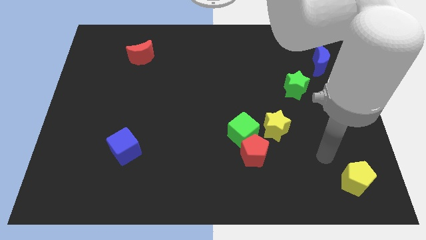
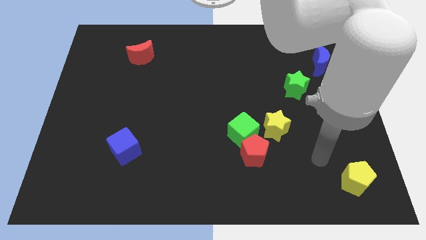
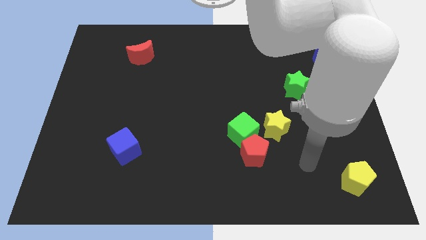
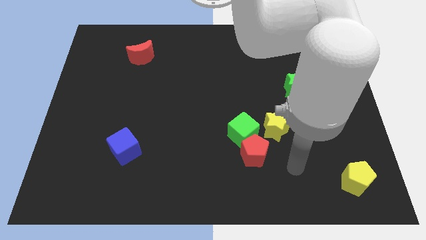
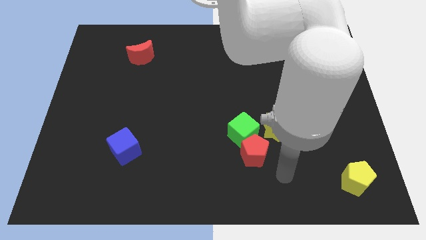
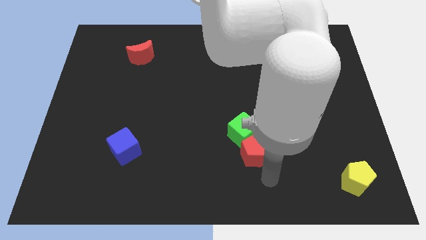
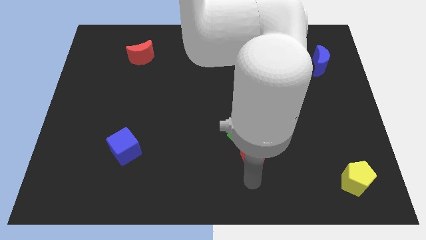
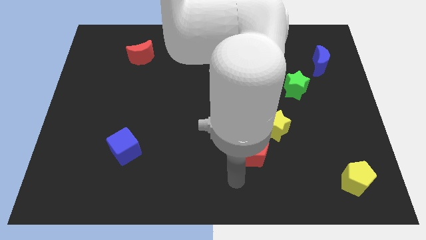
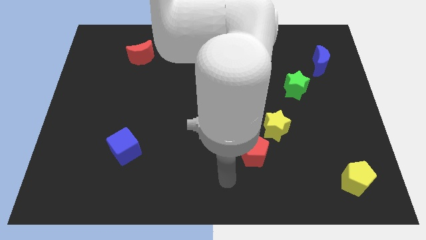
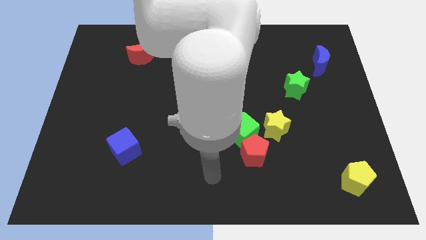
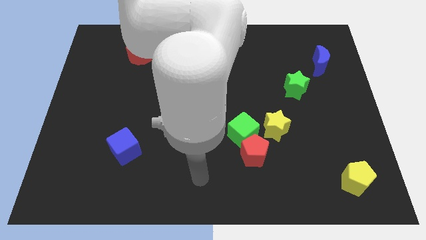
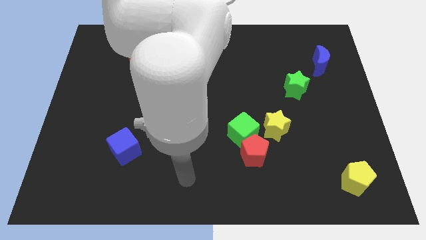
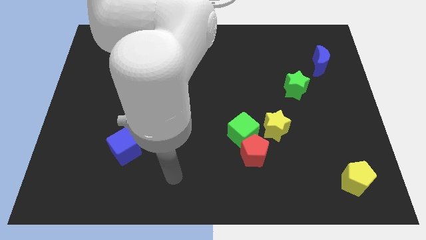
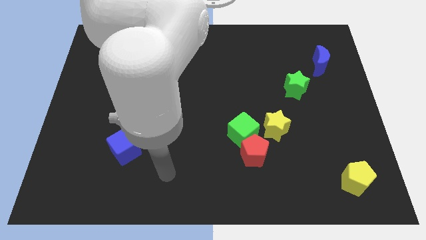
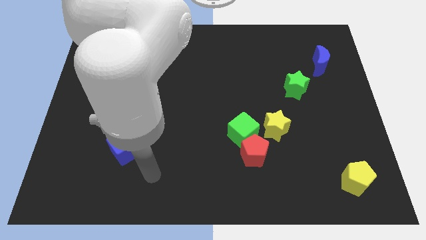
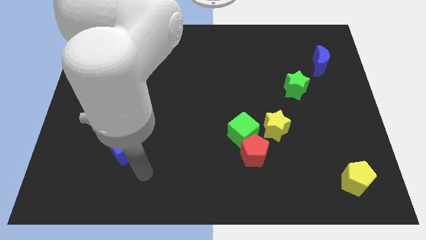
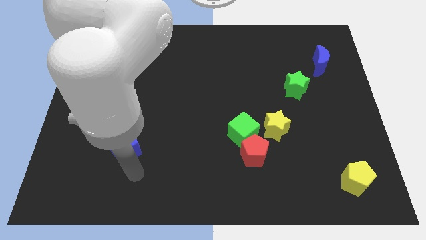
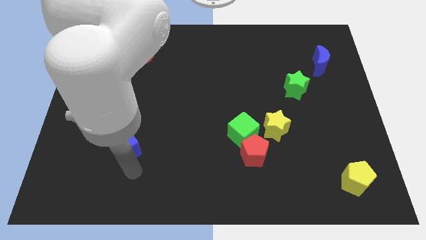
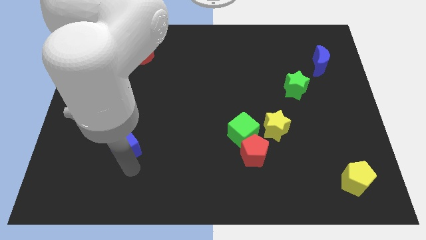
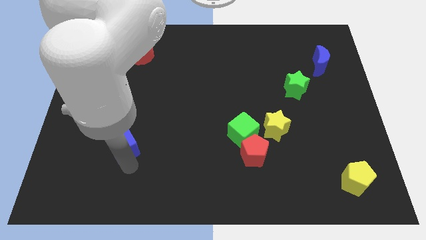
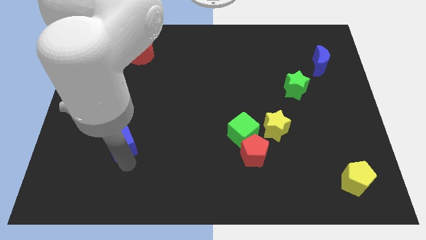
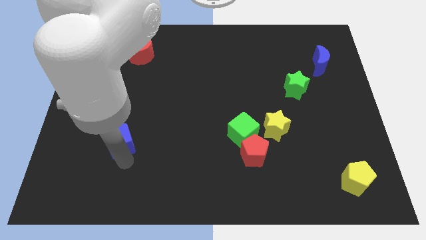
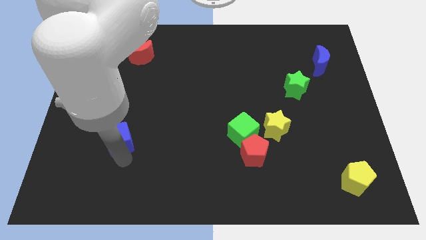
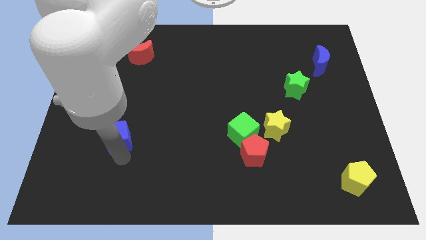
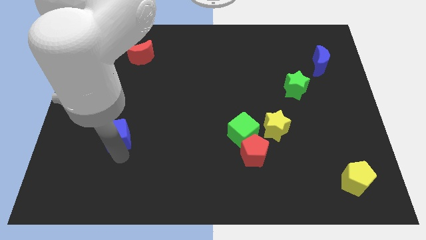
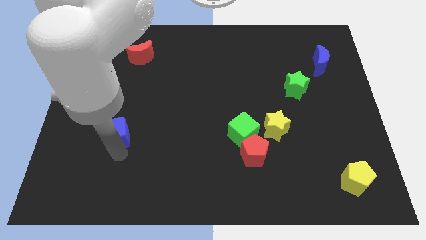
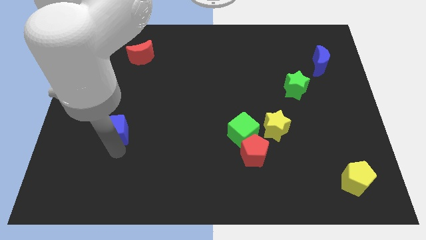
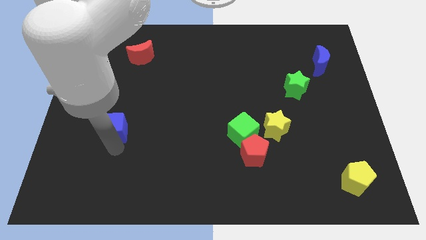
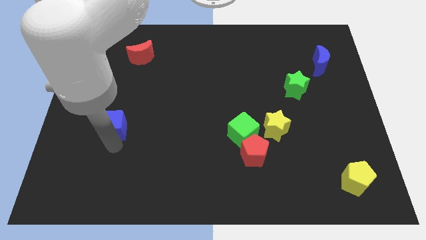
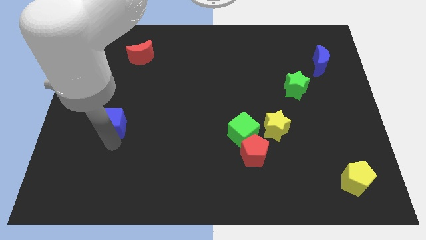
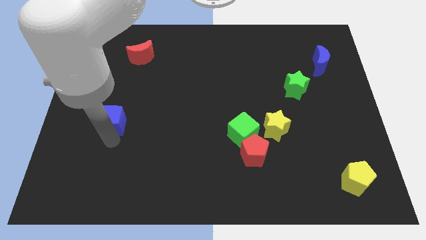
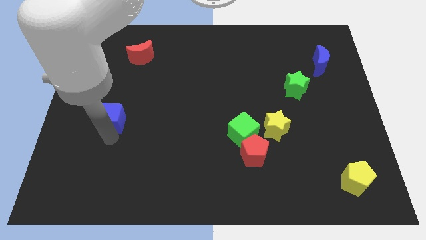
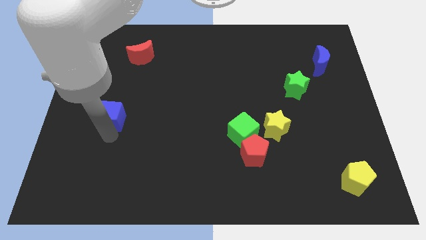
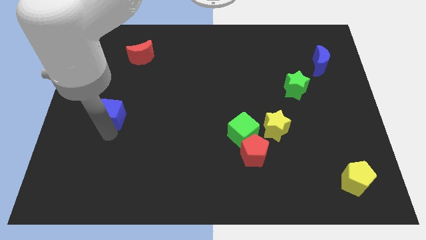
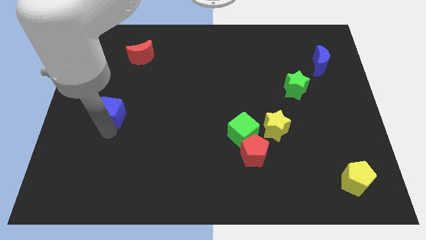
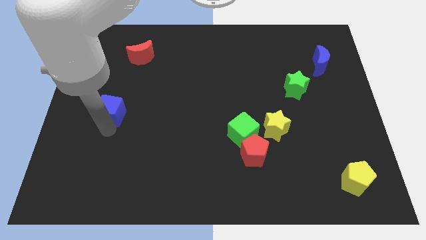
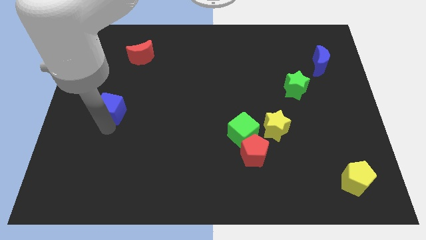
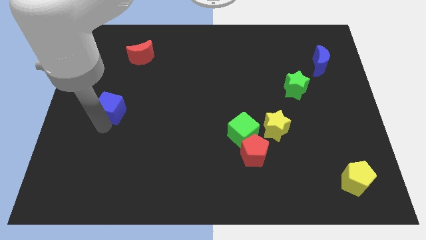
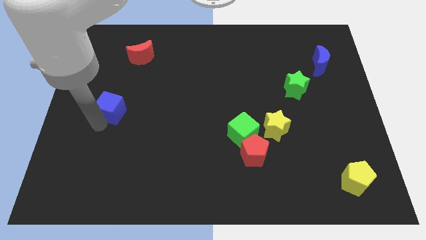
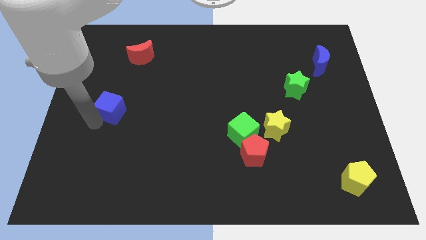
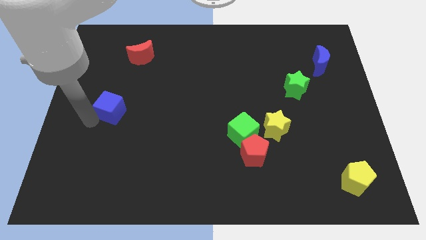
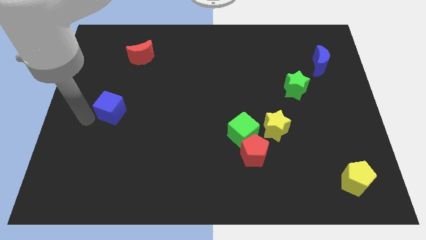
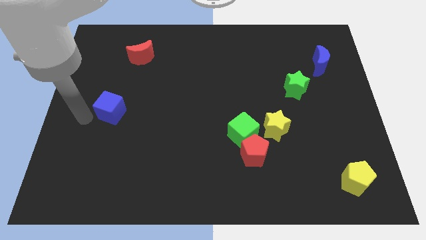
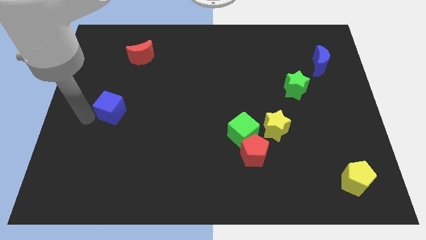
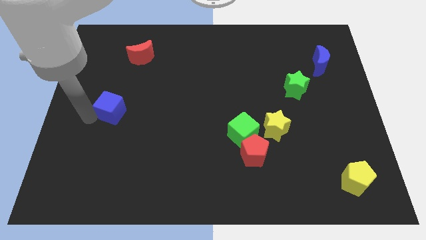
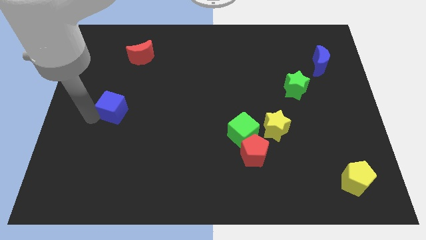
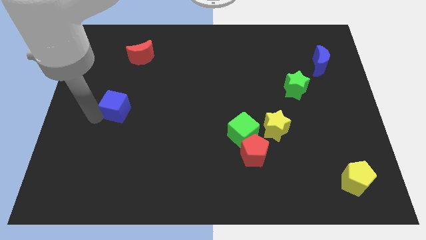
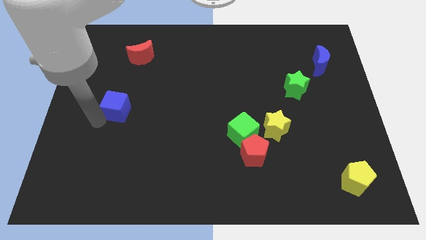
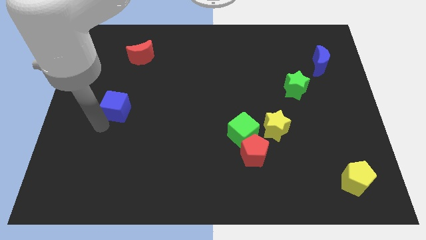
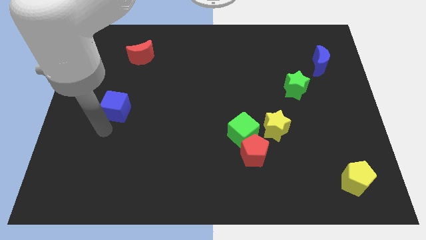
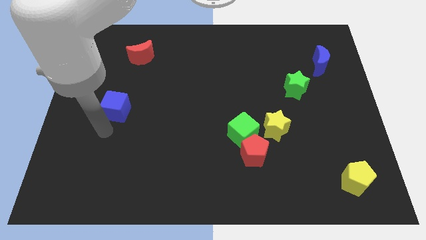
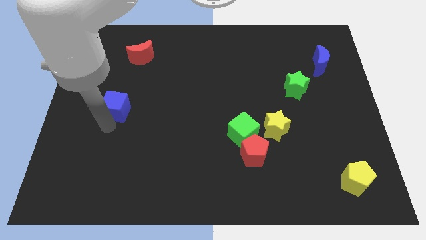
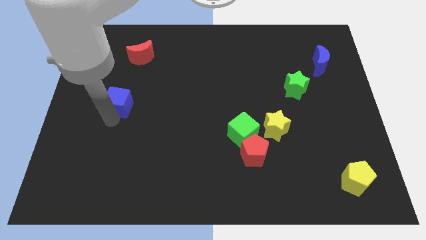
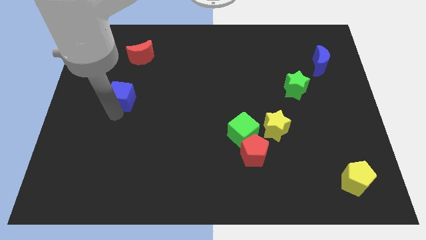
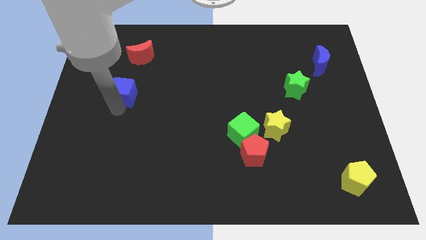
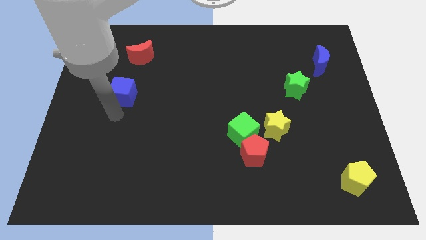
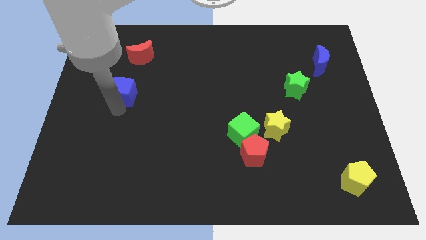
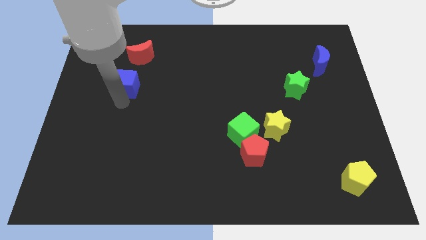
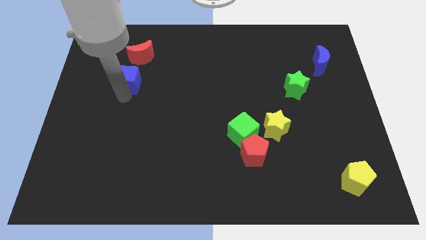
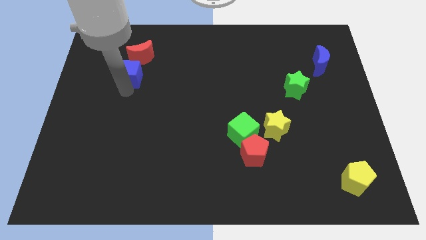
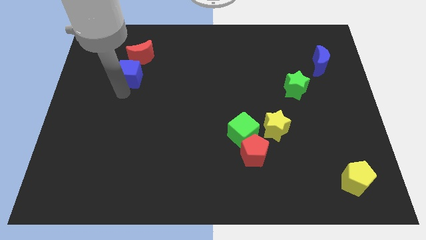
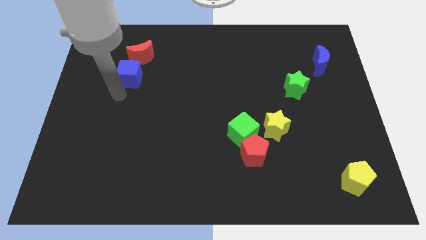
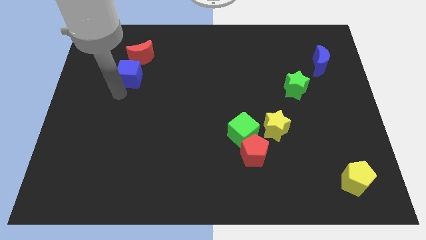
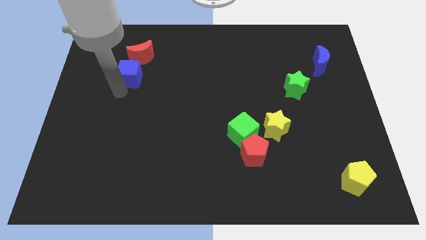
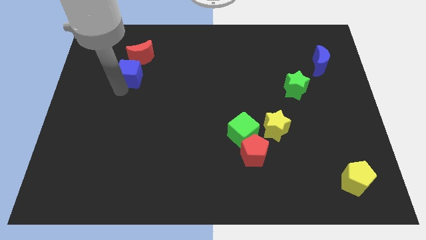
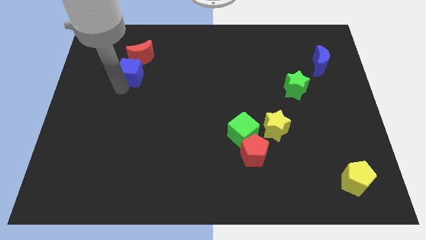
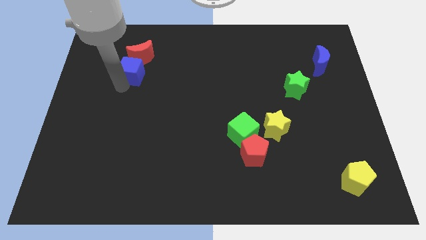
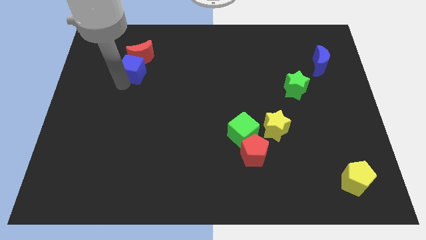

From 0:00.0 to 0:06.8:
put the blue cube close to the red moon

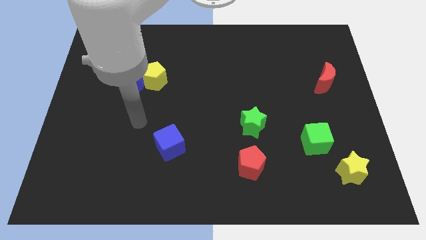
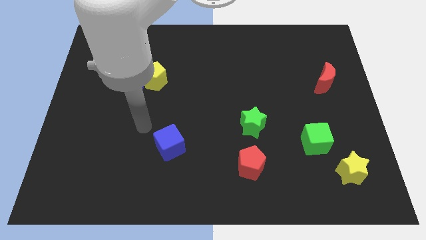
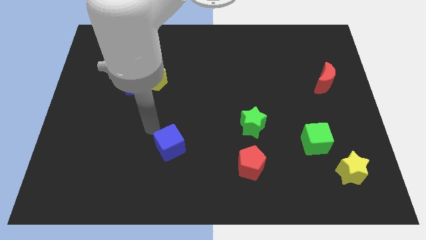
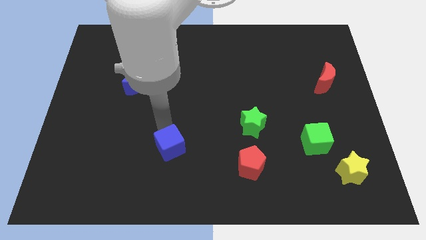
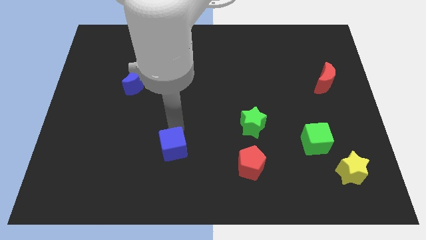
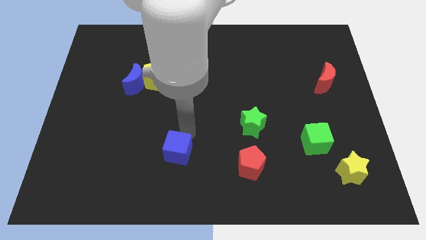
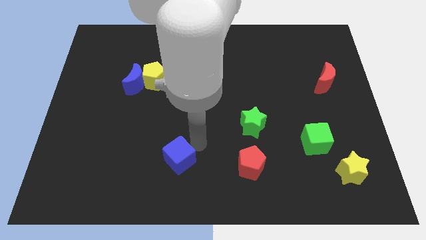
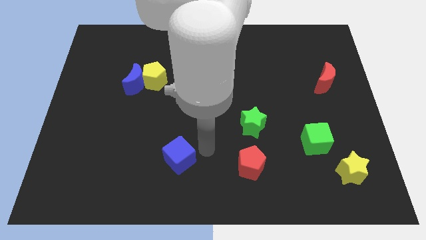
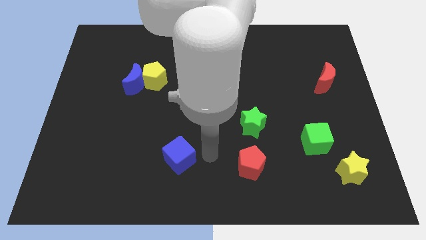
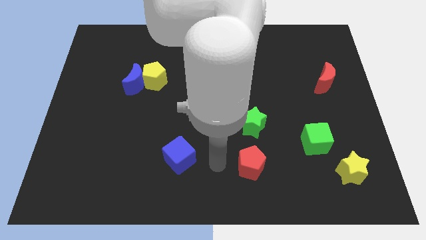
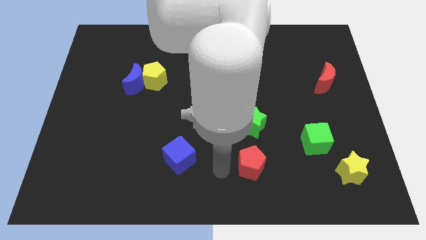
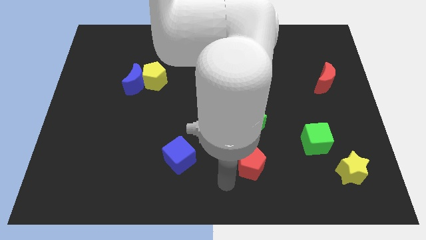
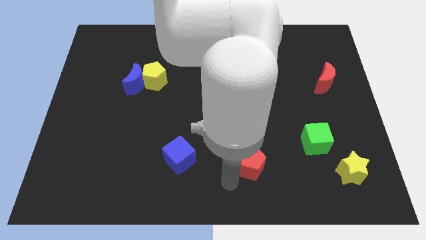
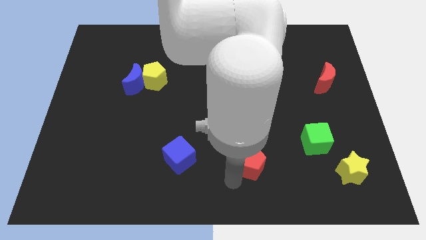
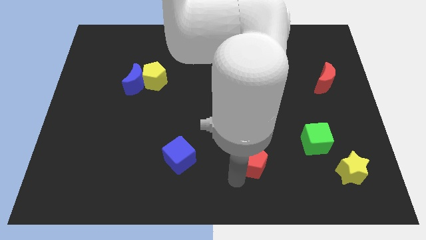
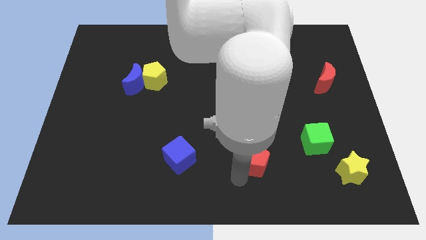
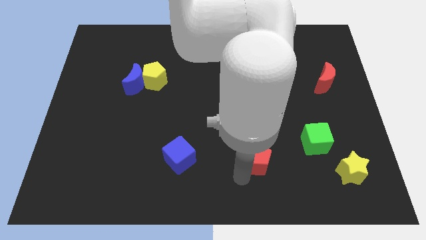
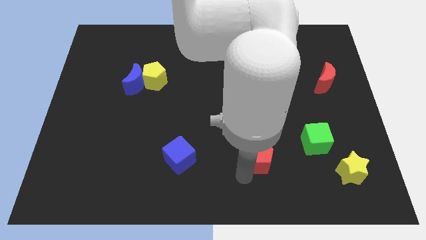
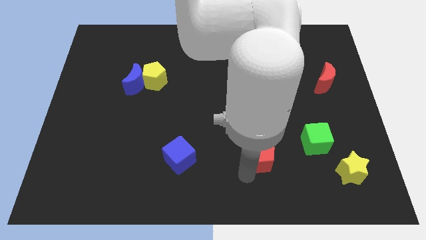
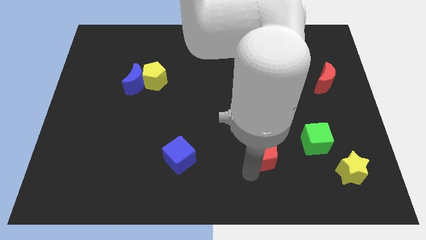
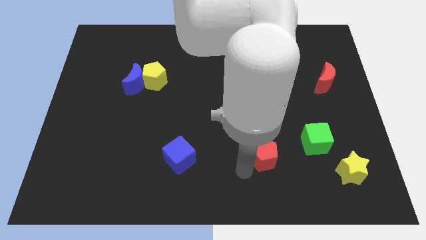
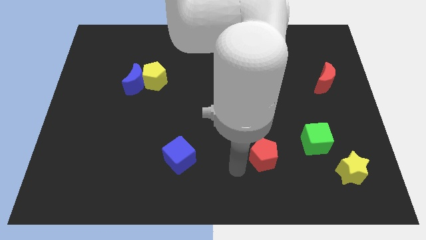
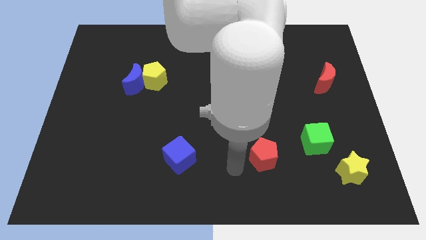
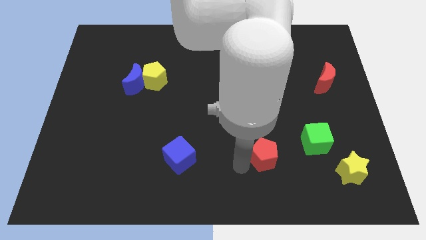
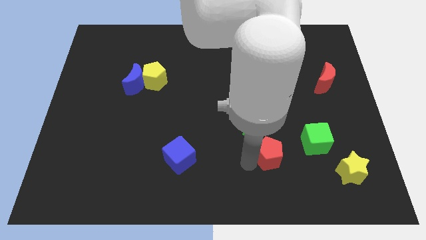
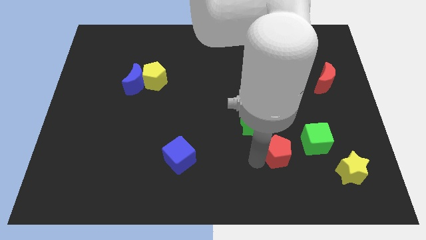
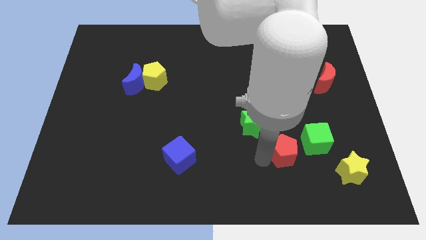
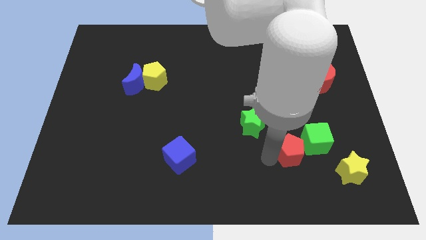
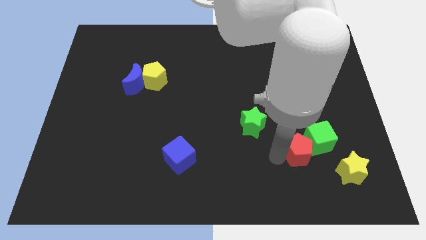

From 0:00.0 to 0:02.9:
push the red pentagon to the green cube
